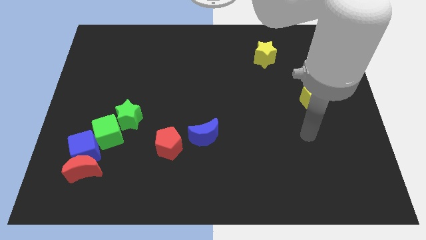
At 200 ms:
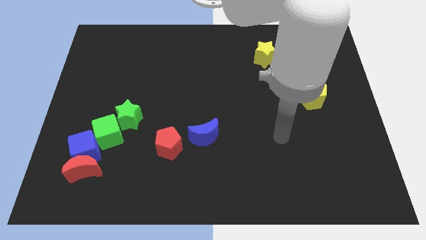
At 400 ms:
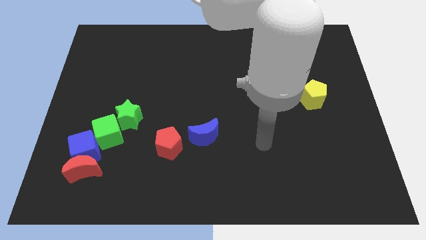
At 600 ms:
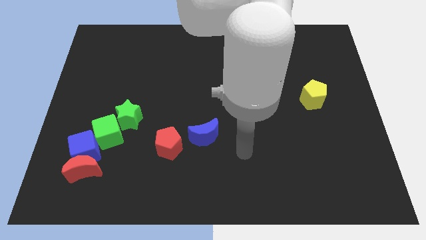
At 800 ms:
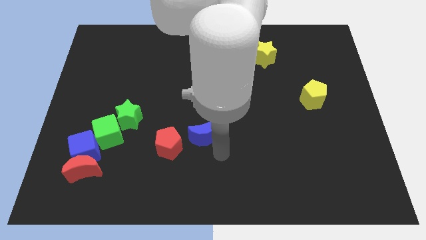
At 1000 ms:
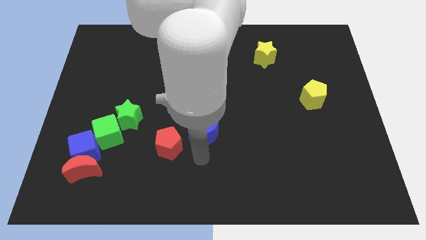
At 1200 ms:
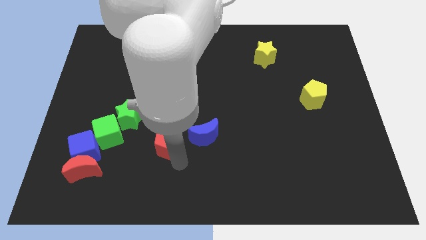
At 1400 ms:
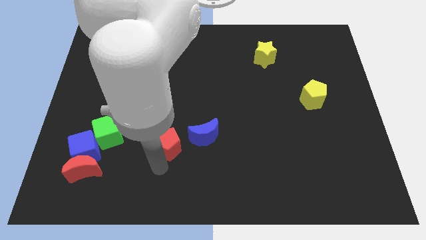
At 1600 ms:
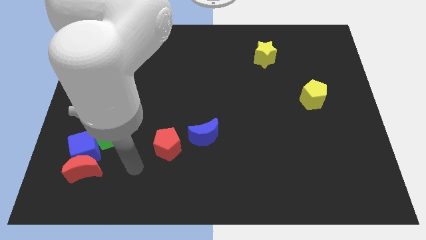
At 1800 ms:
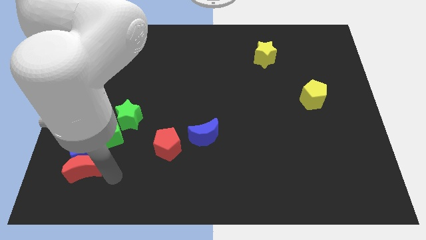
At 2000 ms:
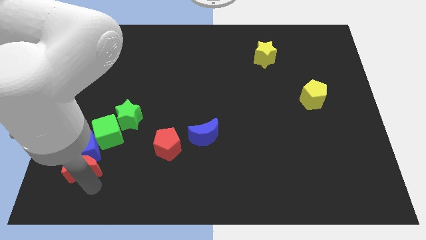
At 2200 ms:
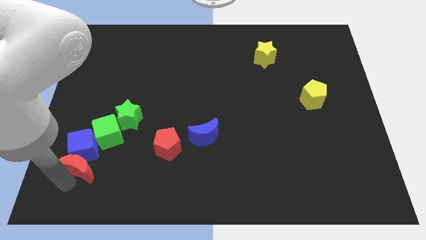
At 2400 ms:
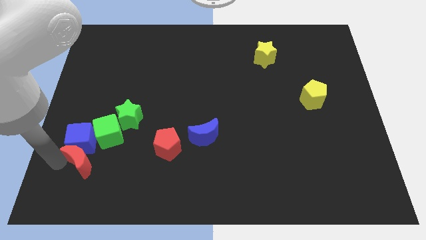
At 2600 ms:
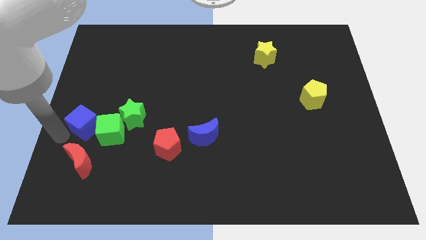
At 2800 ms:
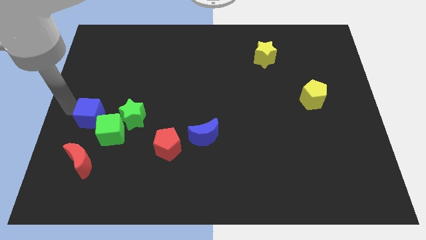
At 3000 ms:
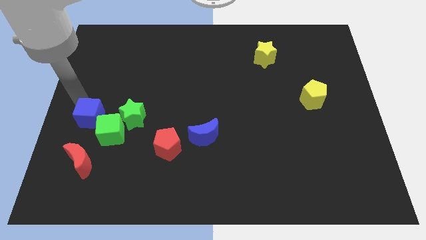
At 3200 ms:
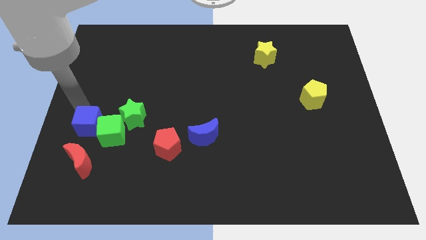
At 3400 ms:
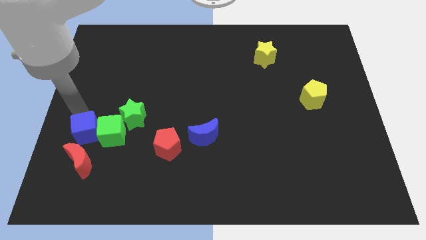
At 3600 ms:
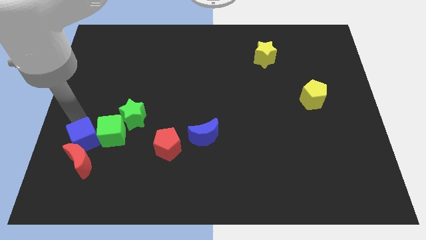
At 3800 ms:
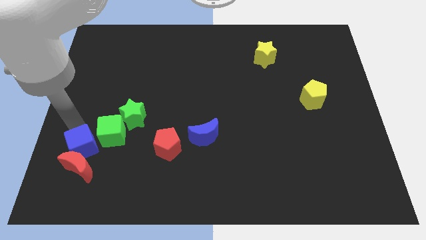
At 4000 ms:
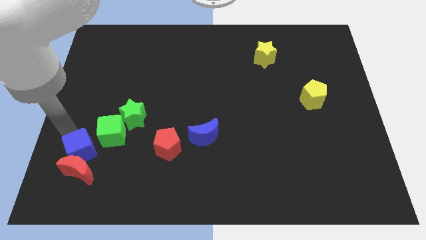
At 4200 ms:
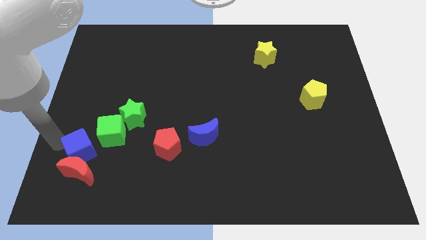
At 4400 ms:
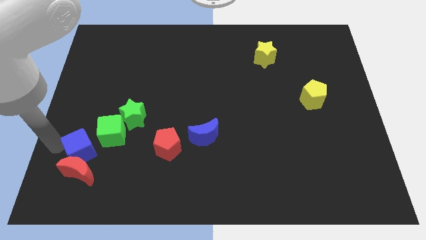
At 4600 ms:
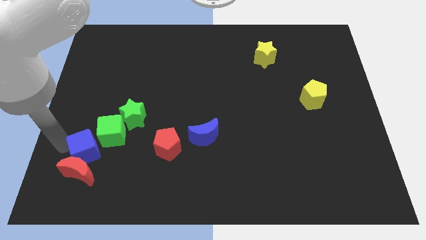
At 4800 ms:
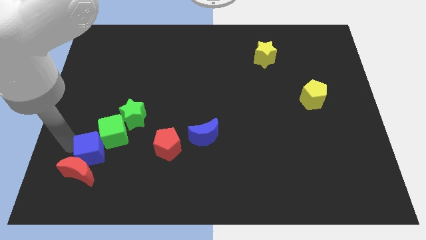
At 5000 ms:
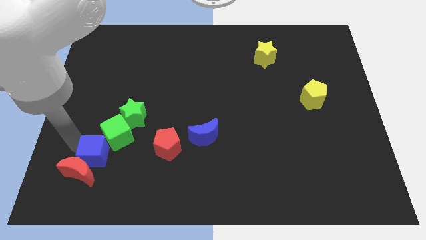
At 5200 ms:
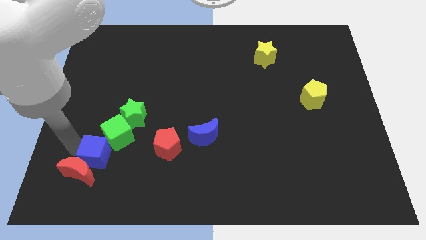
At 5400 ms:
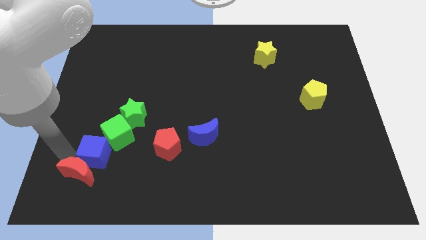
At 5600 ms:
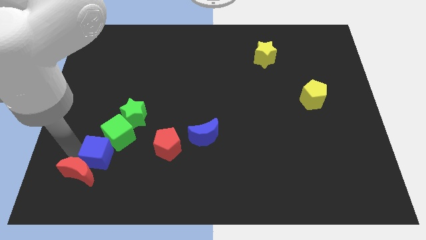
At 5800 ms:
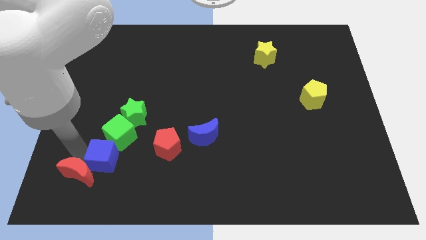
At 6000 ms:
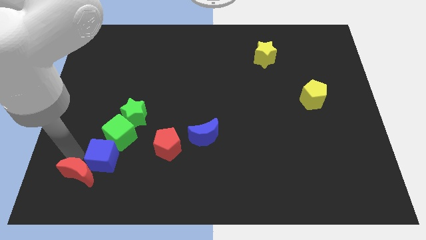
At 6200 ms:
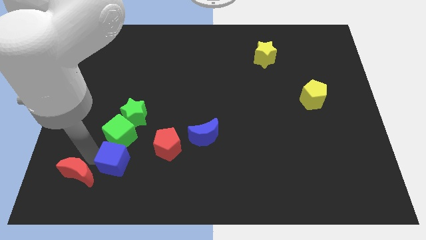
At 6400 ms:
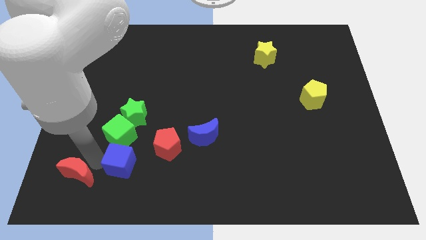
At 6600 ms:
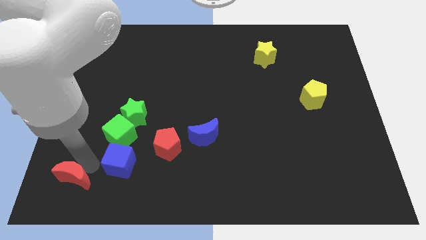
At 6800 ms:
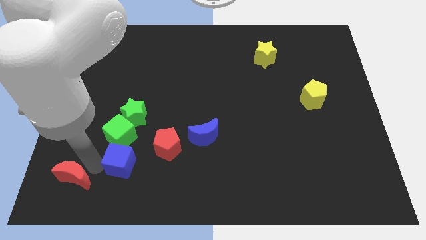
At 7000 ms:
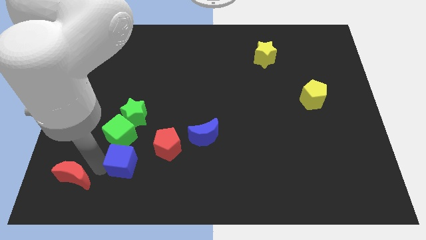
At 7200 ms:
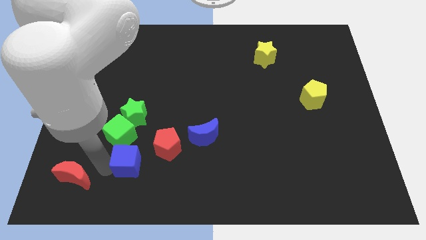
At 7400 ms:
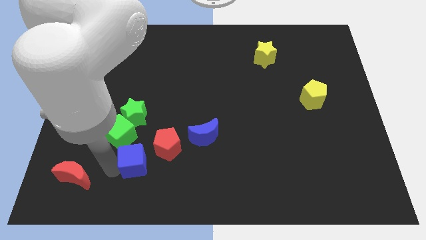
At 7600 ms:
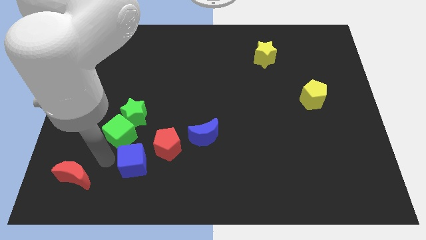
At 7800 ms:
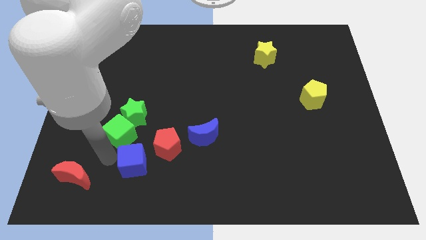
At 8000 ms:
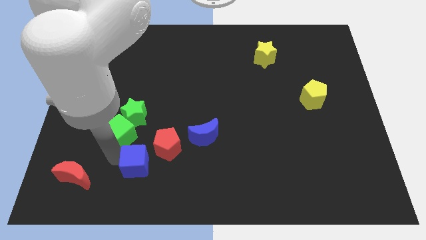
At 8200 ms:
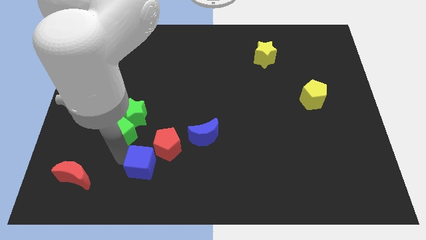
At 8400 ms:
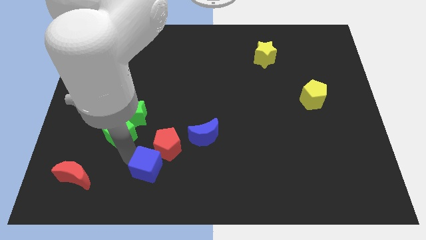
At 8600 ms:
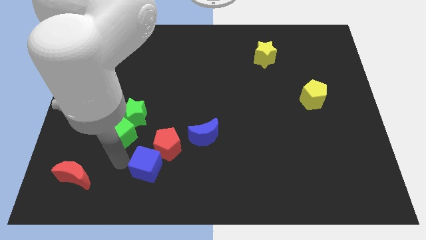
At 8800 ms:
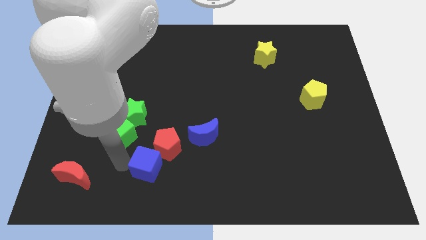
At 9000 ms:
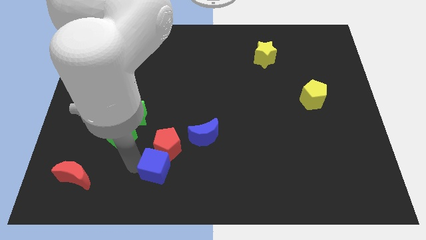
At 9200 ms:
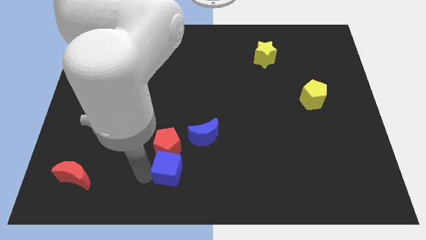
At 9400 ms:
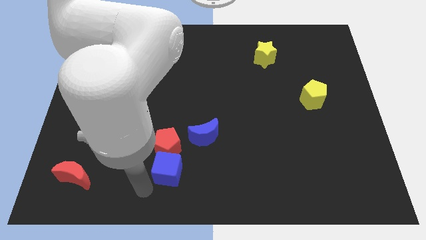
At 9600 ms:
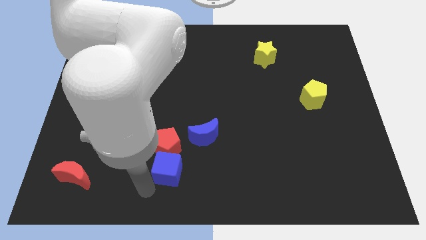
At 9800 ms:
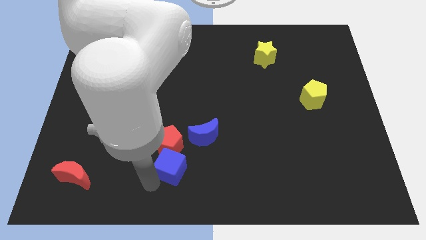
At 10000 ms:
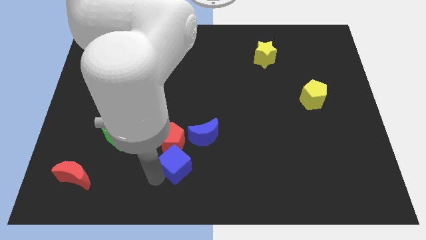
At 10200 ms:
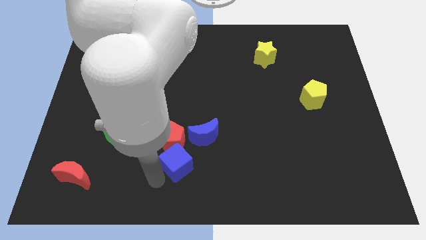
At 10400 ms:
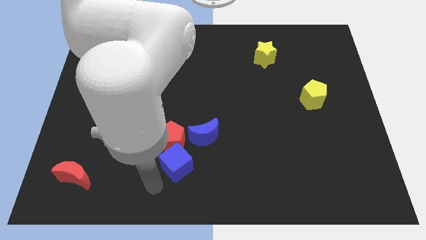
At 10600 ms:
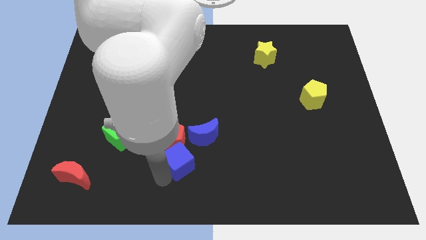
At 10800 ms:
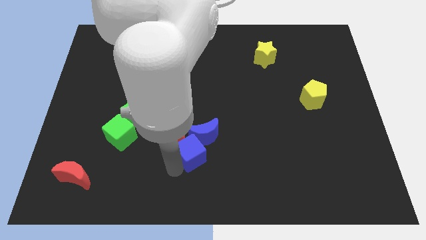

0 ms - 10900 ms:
push the blue cube close to the blue moon

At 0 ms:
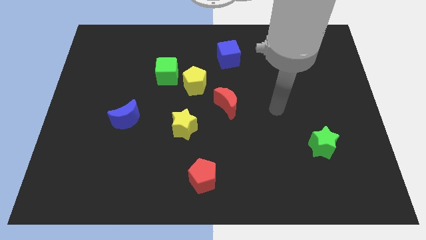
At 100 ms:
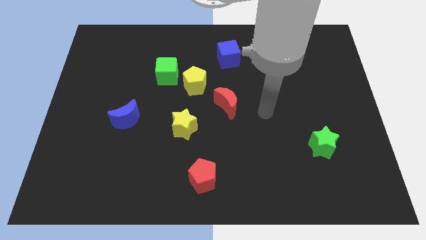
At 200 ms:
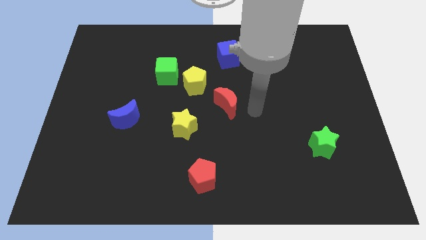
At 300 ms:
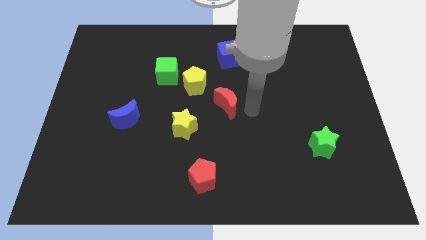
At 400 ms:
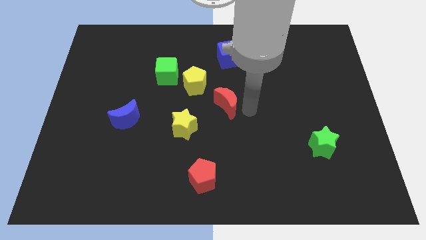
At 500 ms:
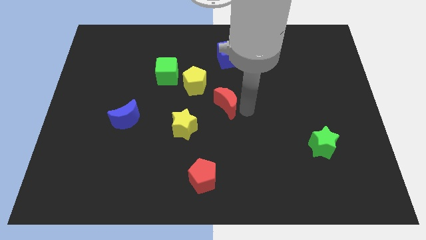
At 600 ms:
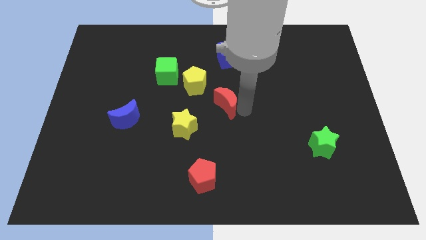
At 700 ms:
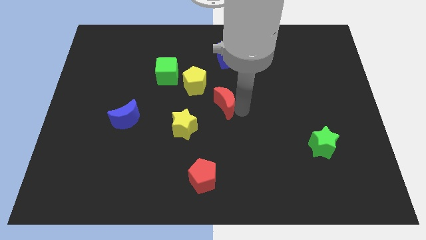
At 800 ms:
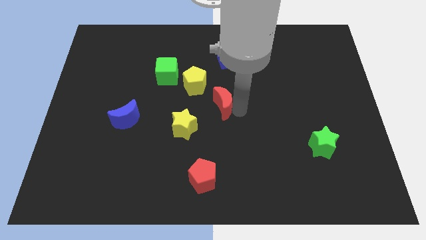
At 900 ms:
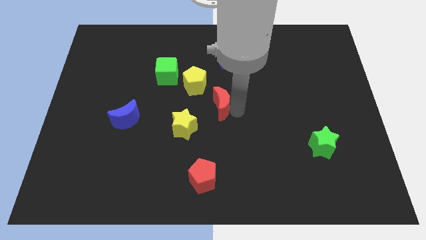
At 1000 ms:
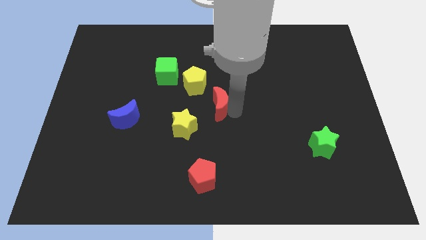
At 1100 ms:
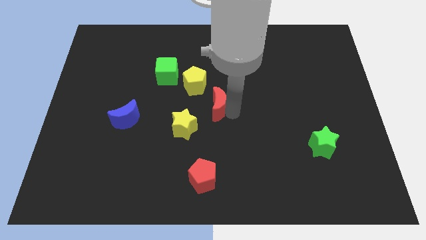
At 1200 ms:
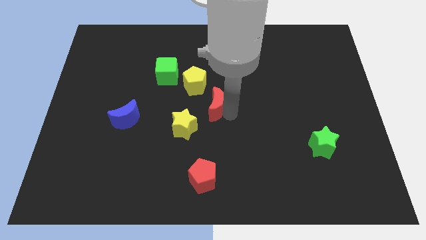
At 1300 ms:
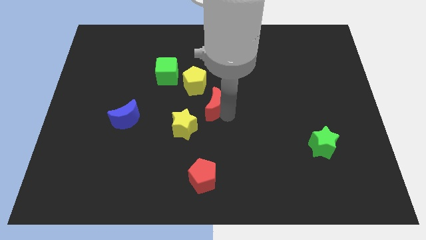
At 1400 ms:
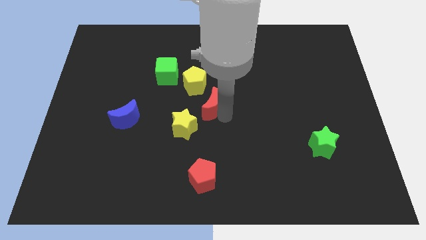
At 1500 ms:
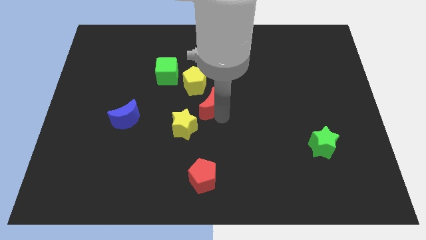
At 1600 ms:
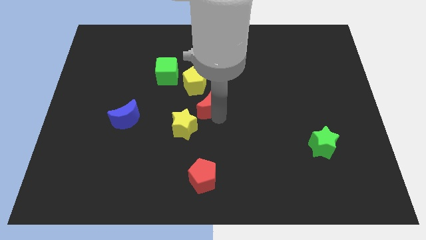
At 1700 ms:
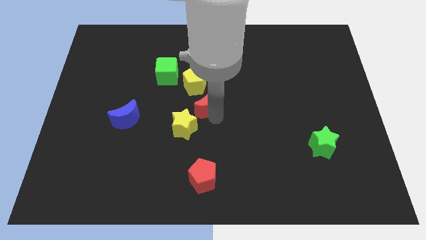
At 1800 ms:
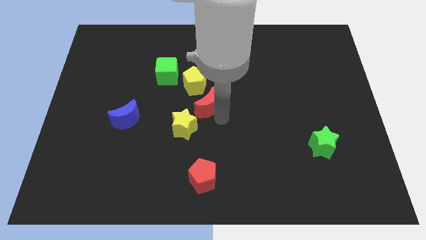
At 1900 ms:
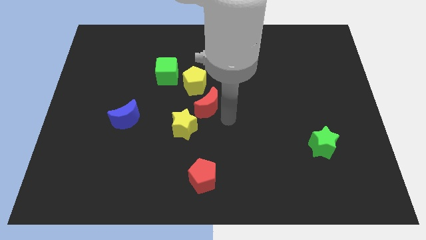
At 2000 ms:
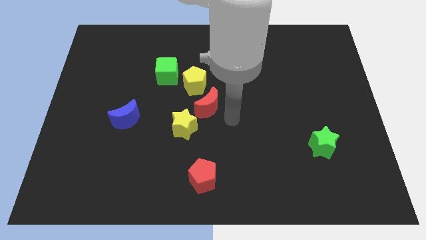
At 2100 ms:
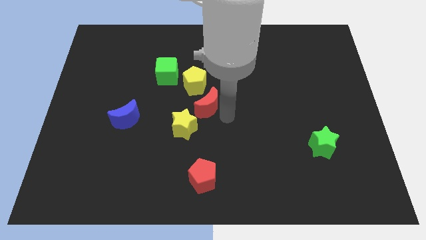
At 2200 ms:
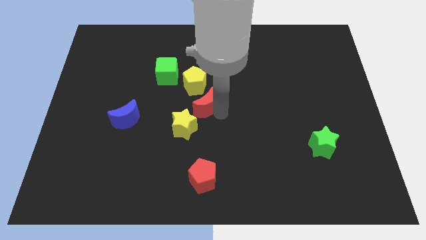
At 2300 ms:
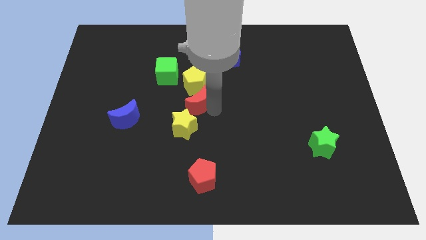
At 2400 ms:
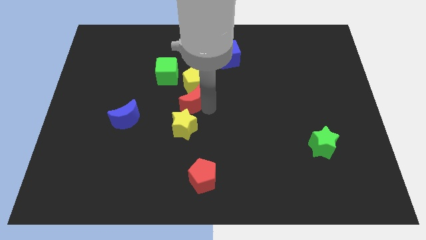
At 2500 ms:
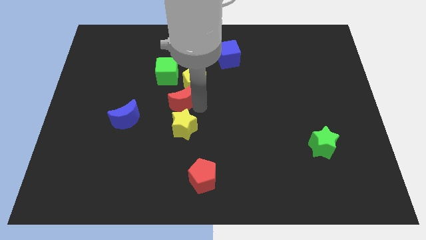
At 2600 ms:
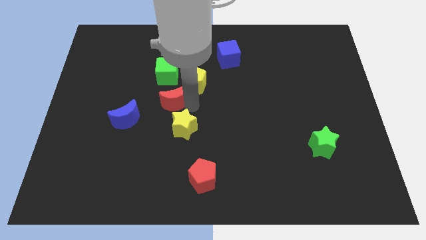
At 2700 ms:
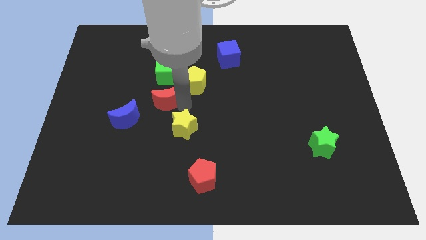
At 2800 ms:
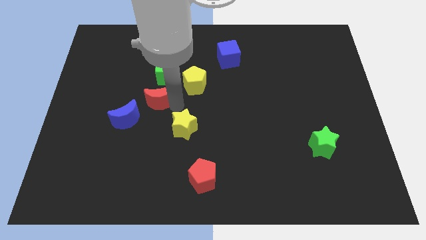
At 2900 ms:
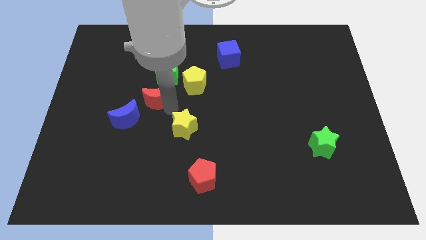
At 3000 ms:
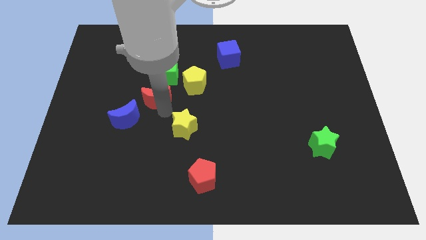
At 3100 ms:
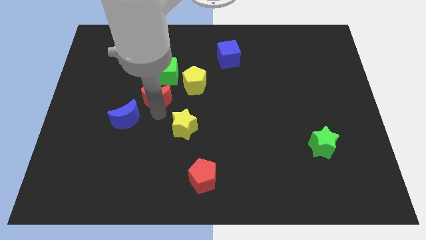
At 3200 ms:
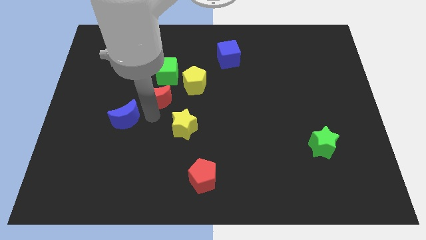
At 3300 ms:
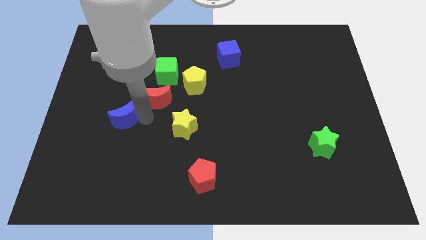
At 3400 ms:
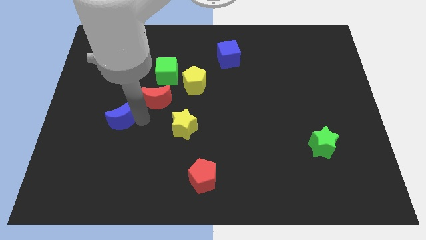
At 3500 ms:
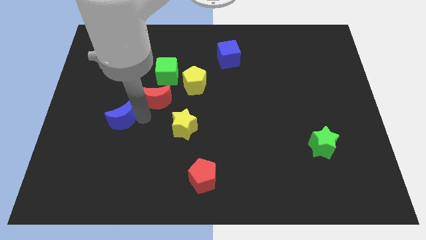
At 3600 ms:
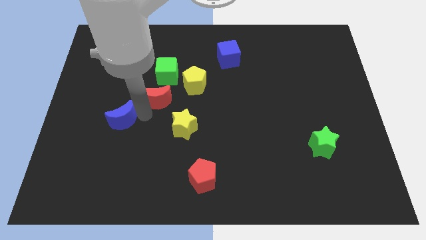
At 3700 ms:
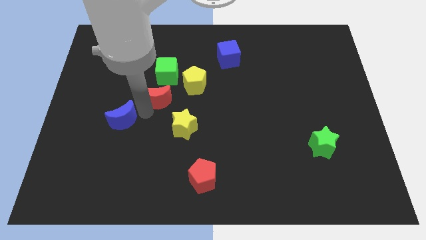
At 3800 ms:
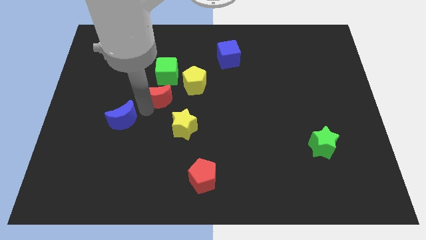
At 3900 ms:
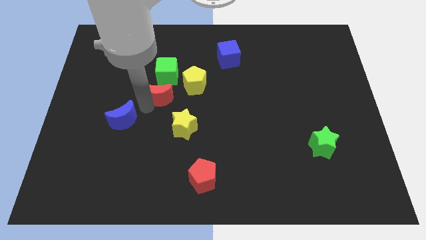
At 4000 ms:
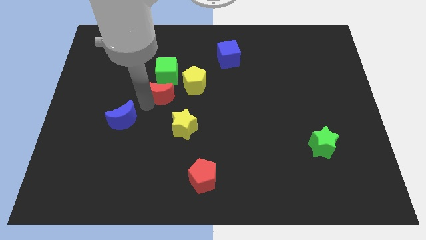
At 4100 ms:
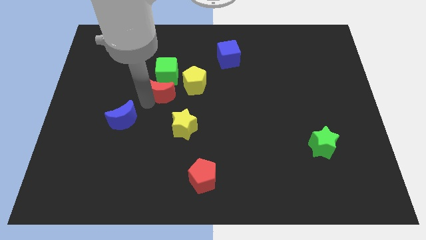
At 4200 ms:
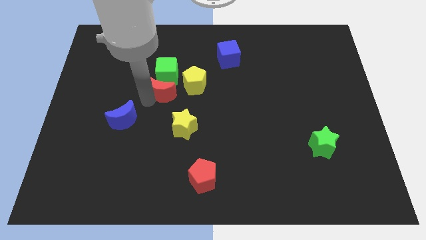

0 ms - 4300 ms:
push the red moon to the green cube
